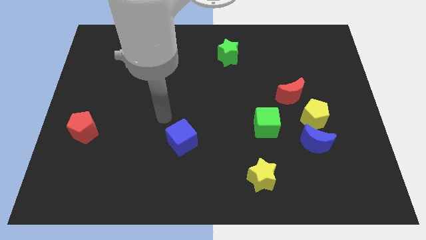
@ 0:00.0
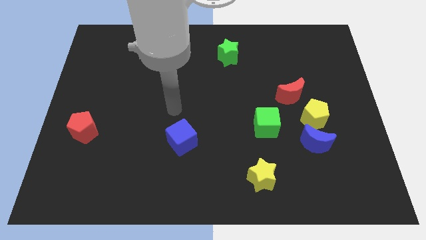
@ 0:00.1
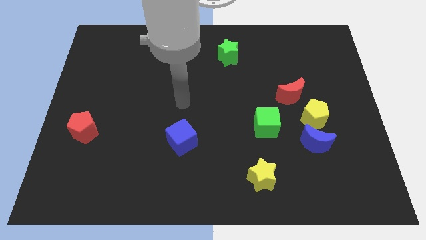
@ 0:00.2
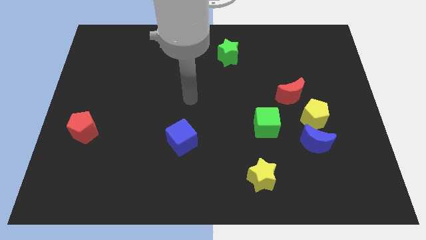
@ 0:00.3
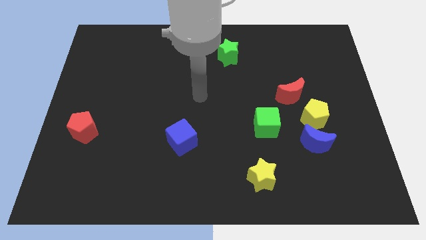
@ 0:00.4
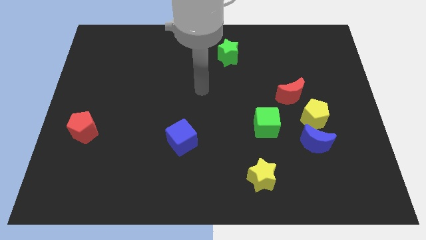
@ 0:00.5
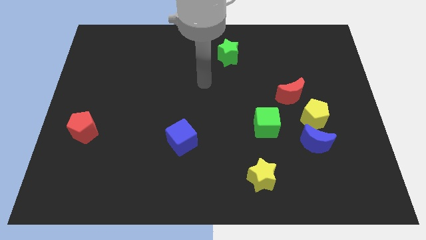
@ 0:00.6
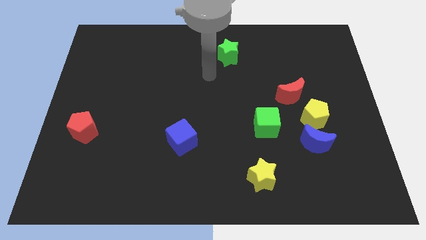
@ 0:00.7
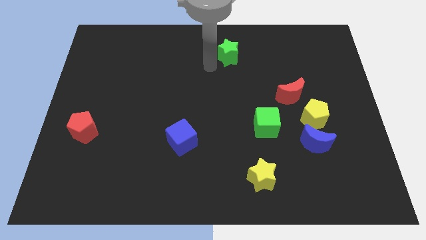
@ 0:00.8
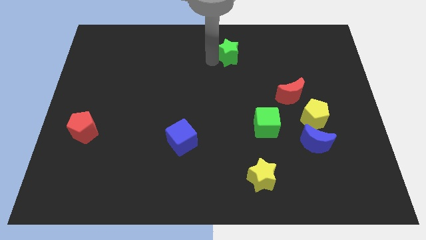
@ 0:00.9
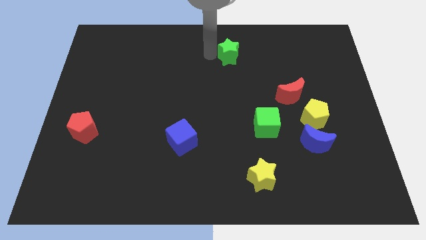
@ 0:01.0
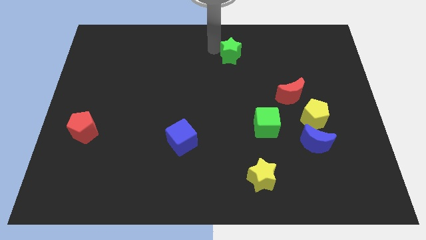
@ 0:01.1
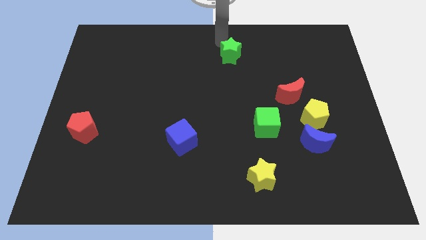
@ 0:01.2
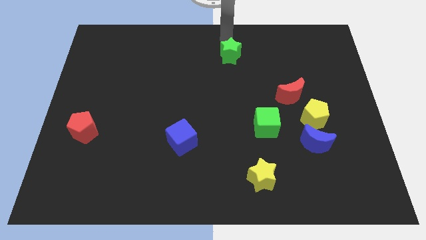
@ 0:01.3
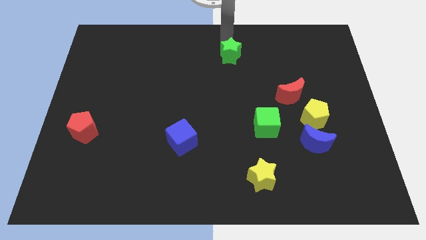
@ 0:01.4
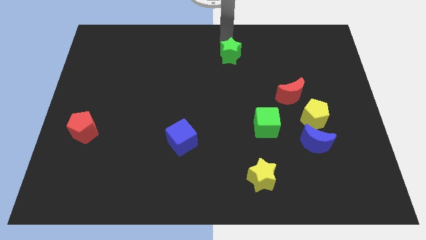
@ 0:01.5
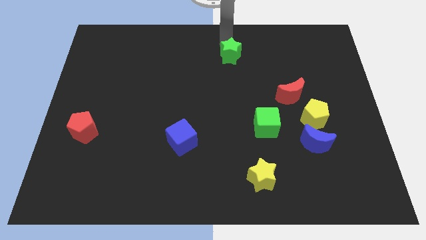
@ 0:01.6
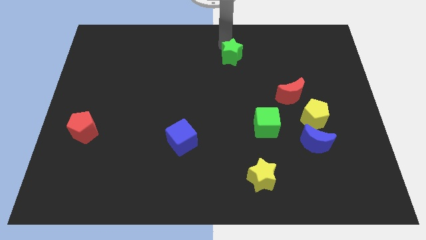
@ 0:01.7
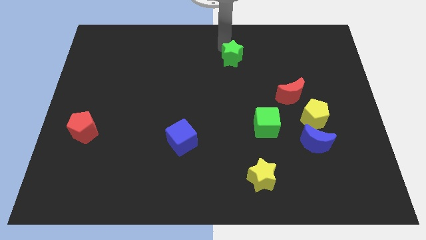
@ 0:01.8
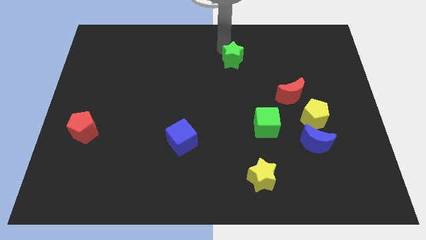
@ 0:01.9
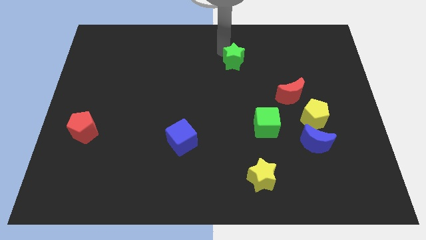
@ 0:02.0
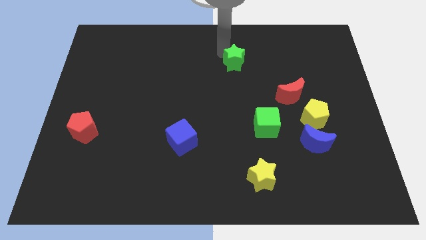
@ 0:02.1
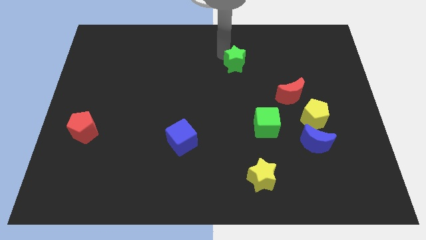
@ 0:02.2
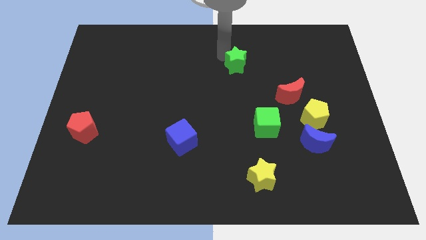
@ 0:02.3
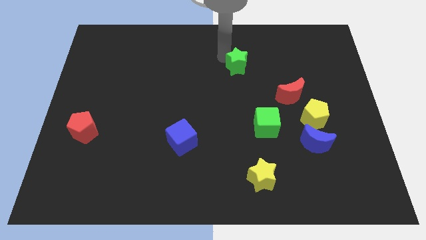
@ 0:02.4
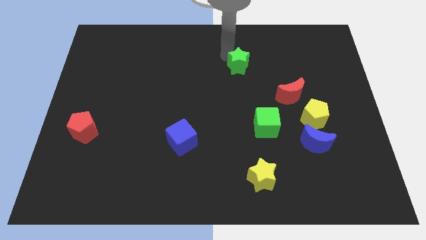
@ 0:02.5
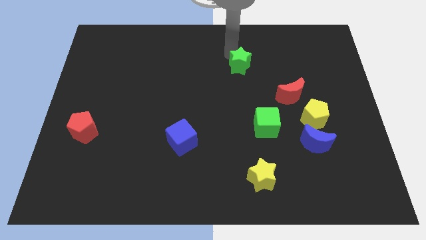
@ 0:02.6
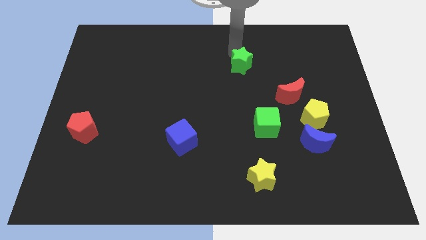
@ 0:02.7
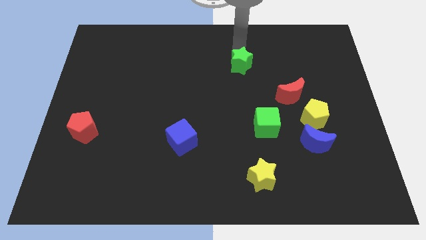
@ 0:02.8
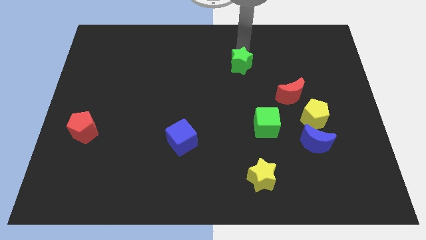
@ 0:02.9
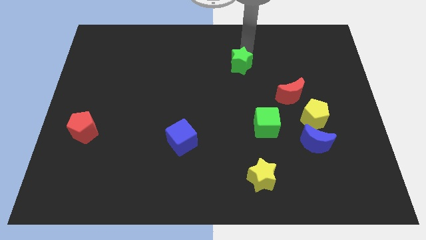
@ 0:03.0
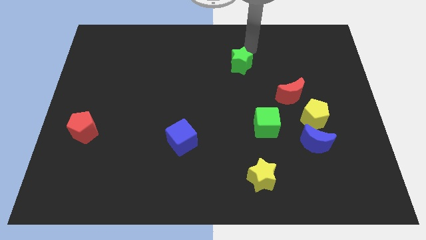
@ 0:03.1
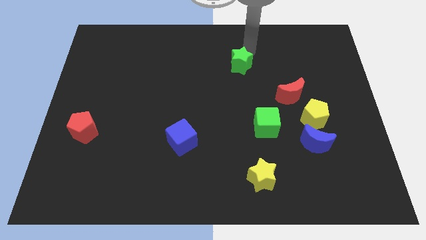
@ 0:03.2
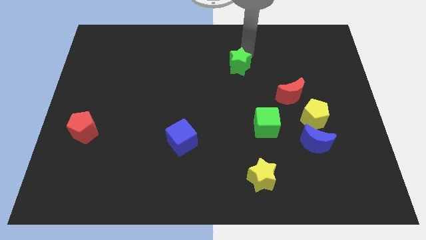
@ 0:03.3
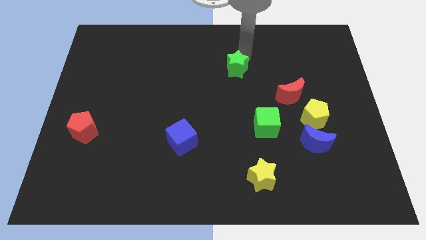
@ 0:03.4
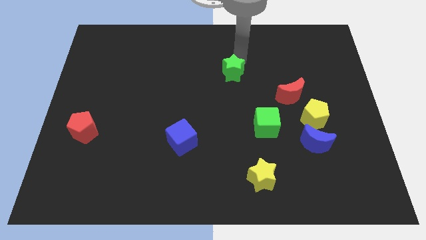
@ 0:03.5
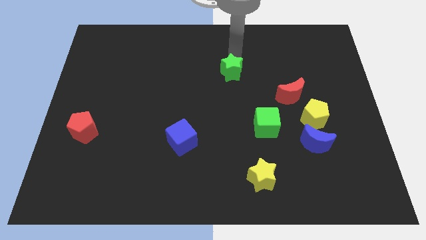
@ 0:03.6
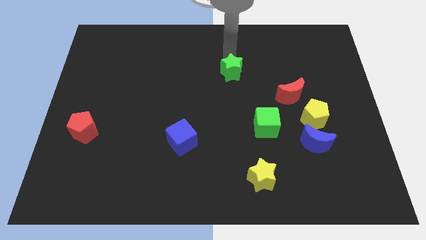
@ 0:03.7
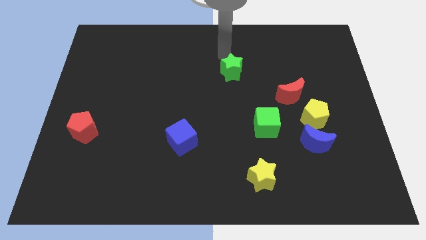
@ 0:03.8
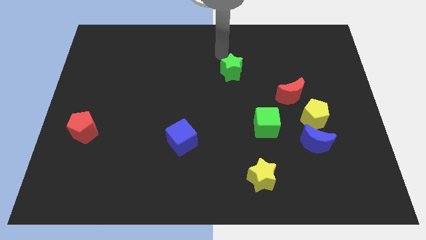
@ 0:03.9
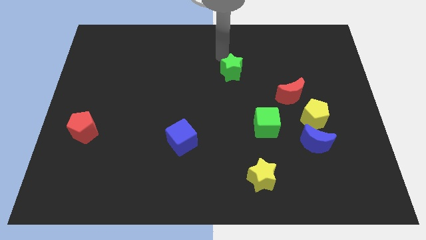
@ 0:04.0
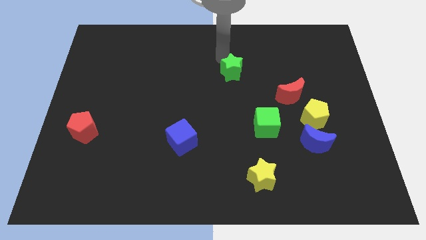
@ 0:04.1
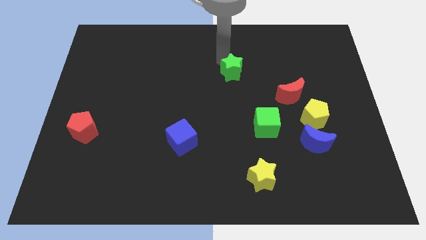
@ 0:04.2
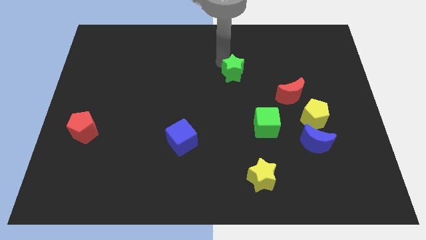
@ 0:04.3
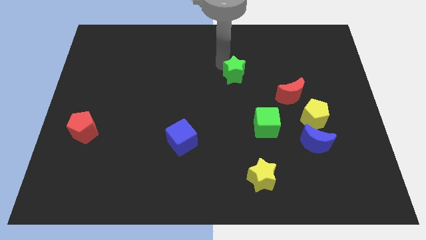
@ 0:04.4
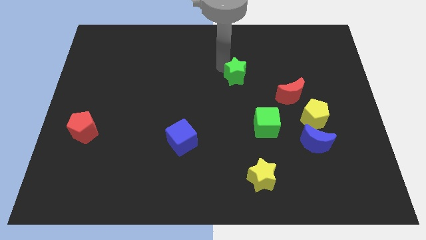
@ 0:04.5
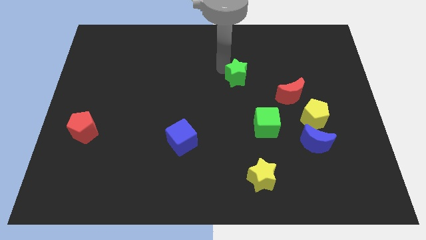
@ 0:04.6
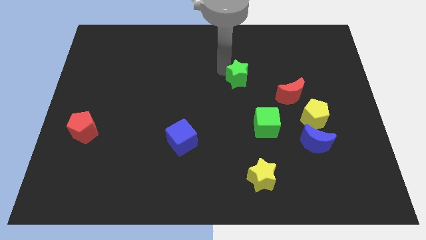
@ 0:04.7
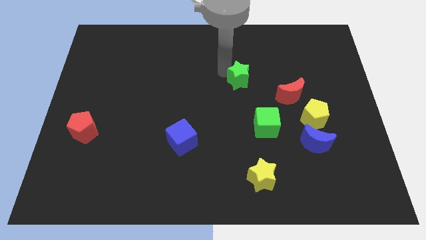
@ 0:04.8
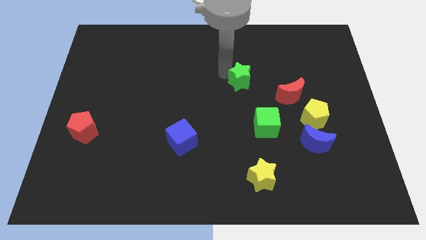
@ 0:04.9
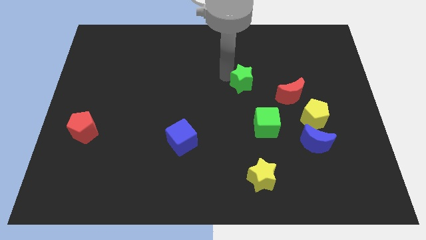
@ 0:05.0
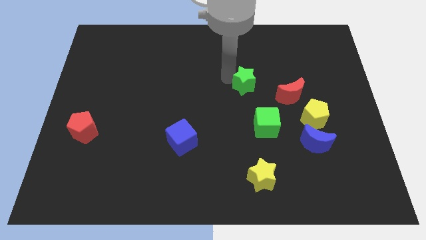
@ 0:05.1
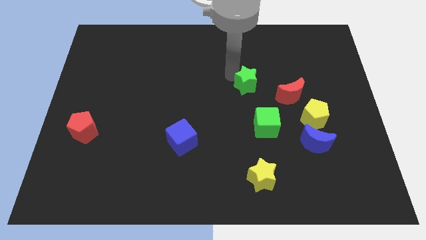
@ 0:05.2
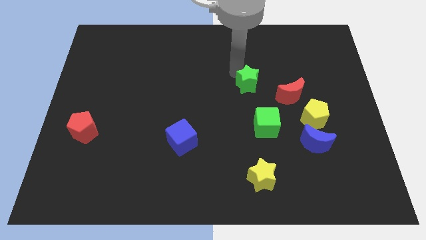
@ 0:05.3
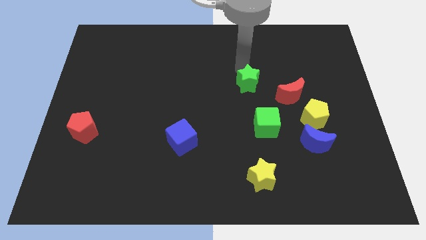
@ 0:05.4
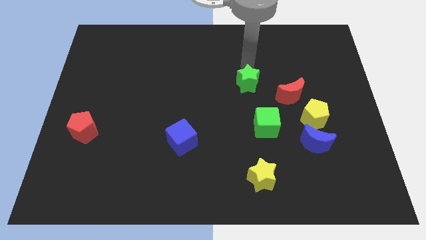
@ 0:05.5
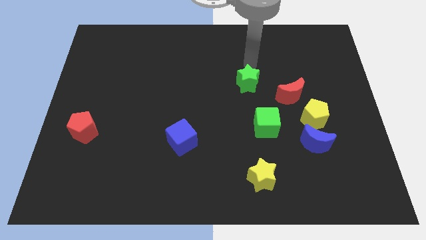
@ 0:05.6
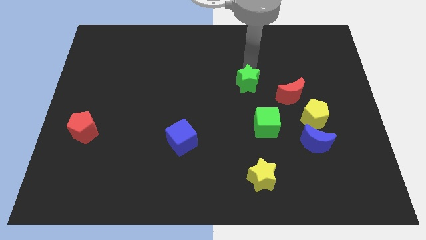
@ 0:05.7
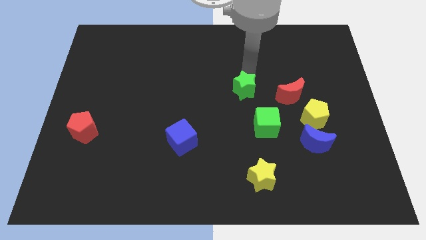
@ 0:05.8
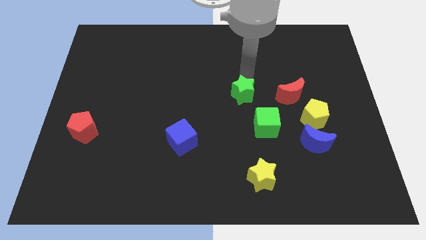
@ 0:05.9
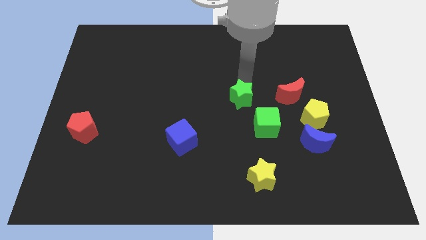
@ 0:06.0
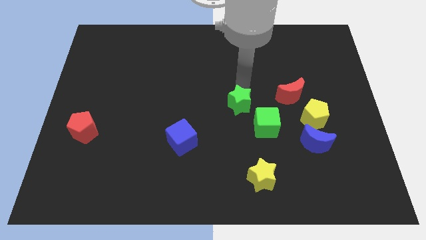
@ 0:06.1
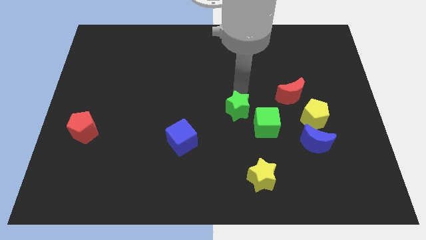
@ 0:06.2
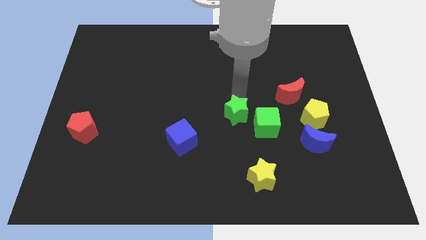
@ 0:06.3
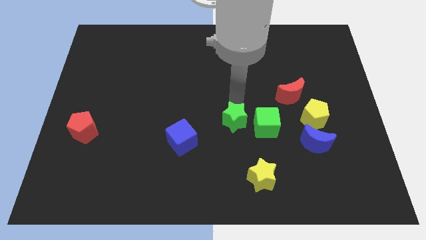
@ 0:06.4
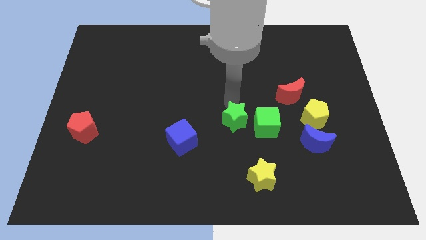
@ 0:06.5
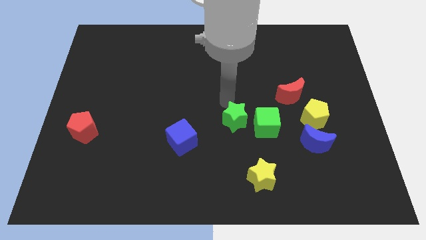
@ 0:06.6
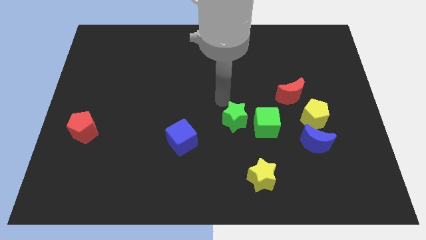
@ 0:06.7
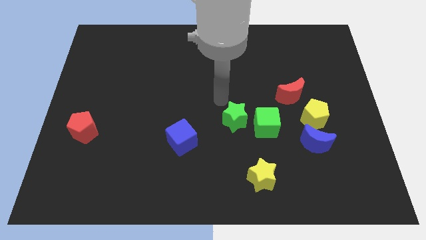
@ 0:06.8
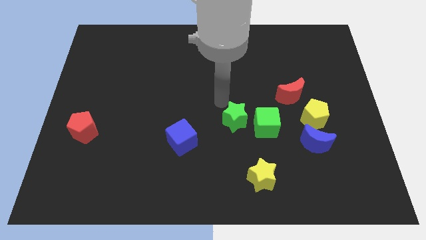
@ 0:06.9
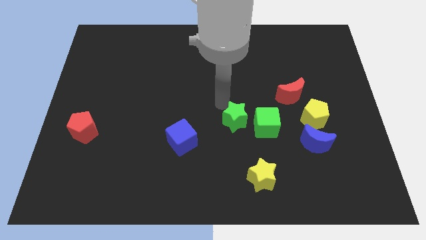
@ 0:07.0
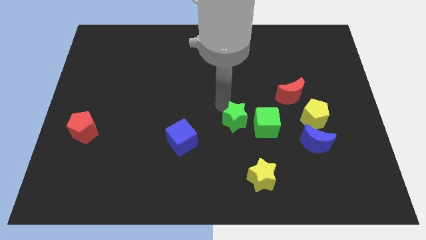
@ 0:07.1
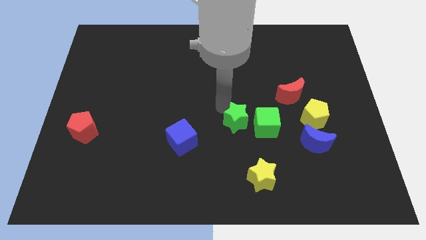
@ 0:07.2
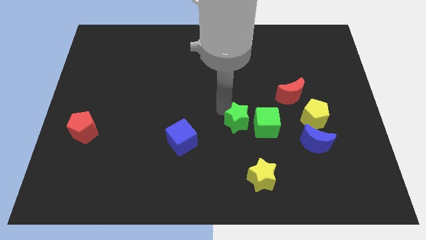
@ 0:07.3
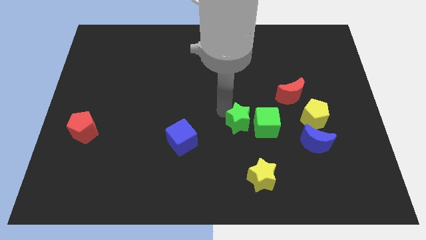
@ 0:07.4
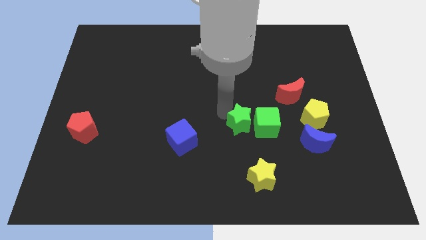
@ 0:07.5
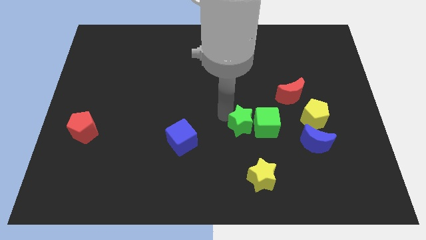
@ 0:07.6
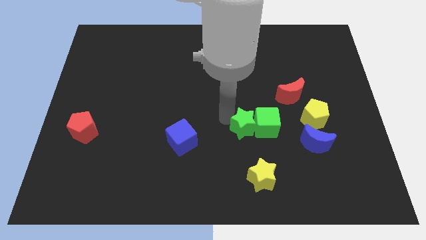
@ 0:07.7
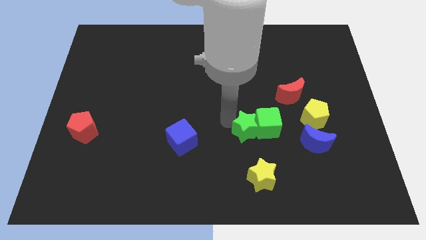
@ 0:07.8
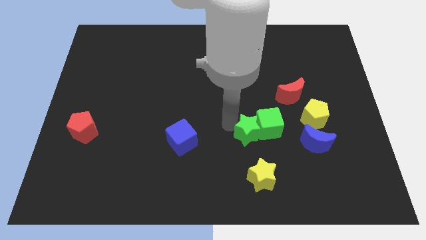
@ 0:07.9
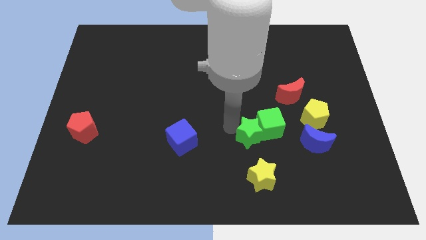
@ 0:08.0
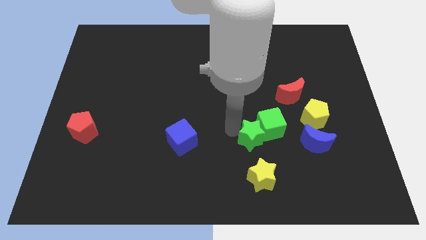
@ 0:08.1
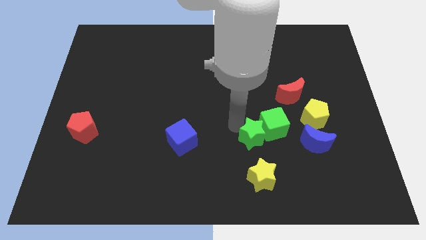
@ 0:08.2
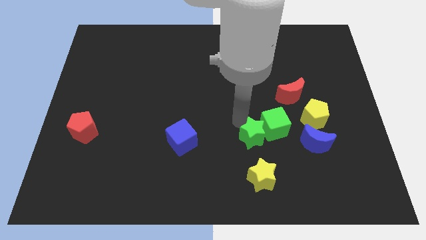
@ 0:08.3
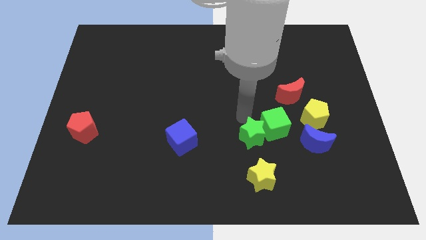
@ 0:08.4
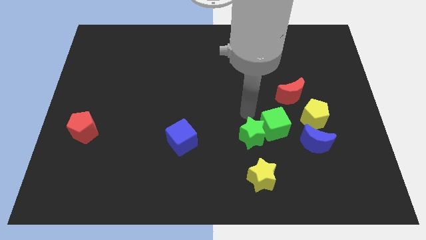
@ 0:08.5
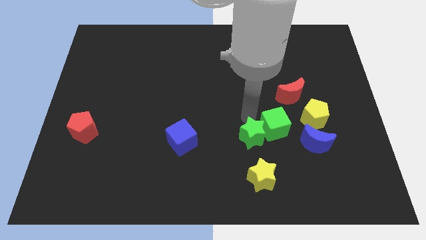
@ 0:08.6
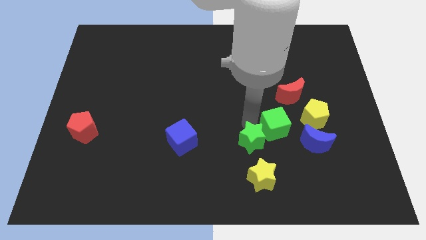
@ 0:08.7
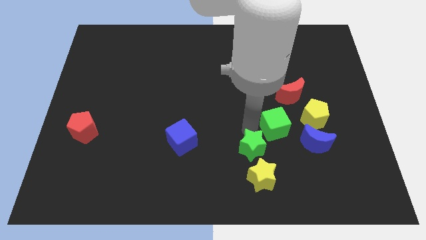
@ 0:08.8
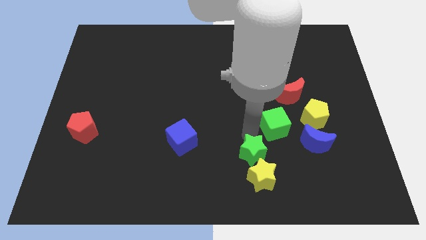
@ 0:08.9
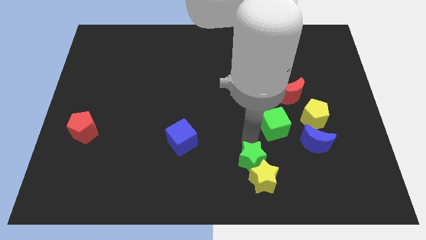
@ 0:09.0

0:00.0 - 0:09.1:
put the green star to the yellow star
